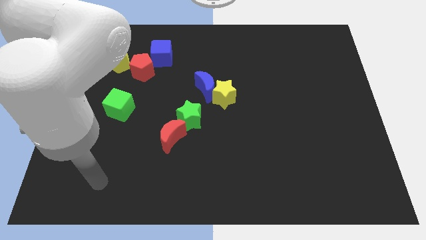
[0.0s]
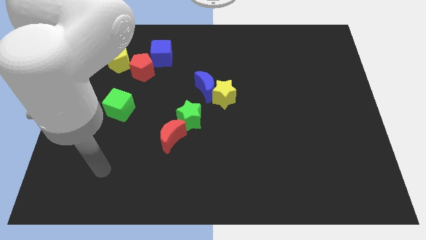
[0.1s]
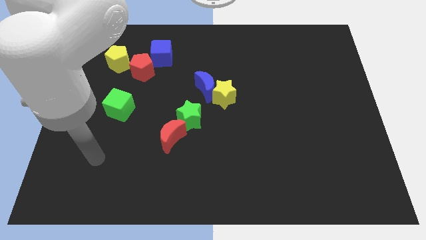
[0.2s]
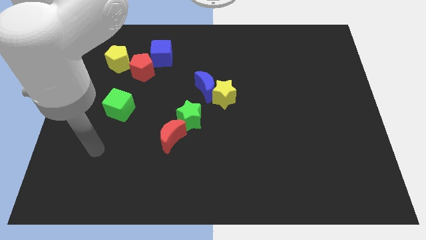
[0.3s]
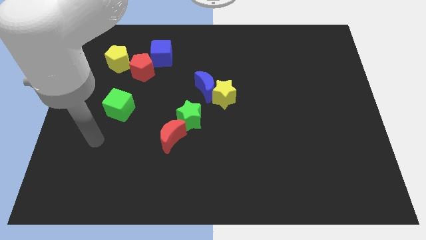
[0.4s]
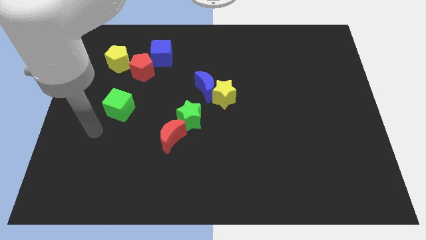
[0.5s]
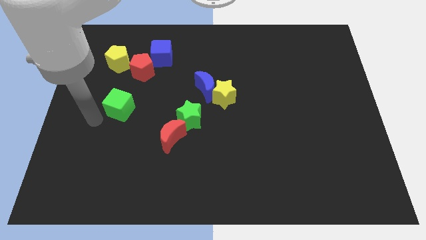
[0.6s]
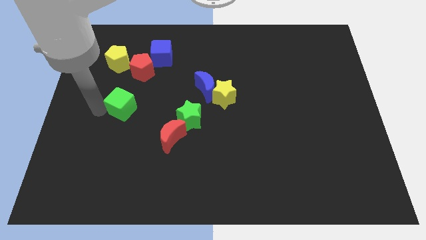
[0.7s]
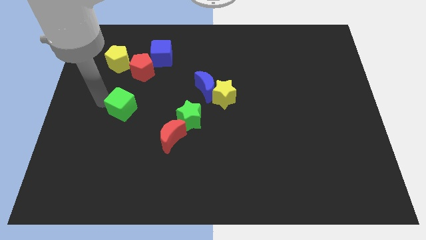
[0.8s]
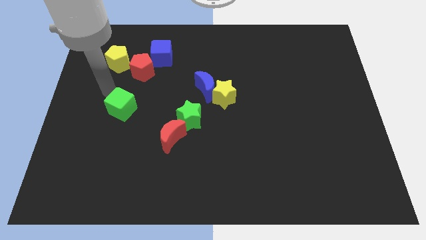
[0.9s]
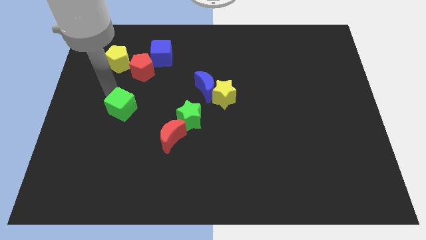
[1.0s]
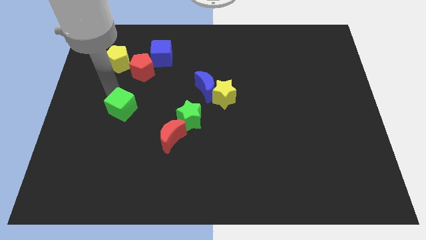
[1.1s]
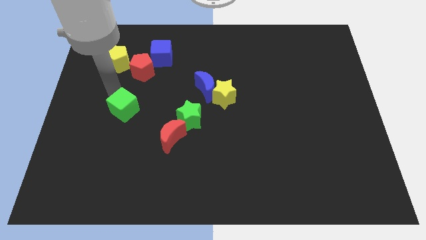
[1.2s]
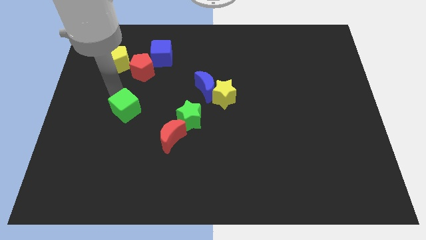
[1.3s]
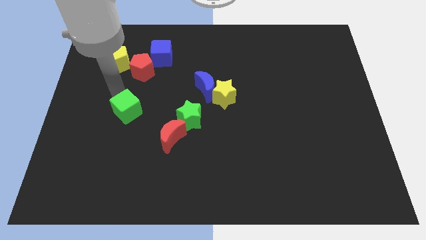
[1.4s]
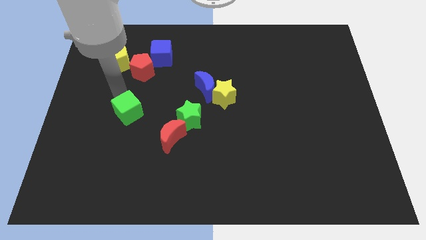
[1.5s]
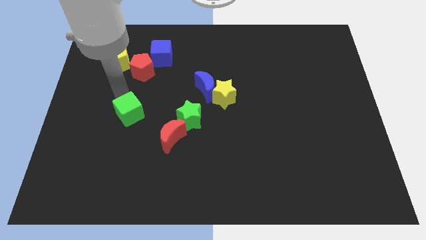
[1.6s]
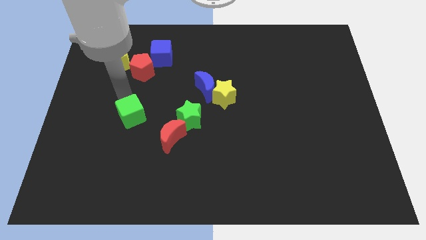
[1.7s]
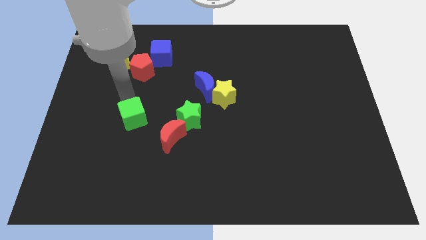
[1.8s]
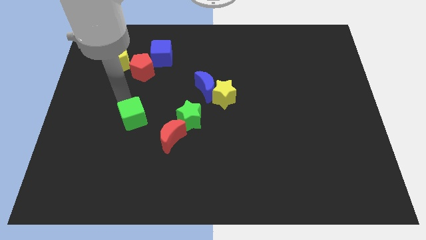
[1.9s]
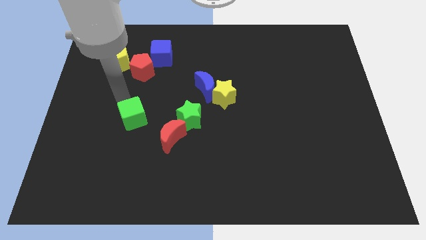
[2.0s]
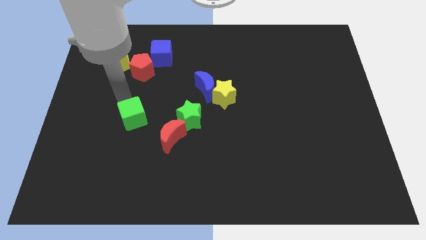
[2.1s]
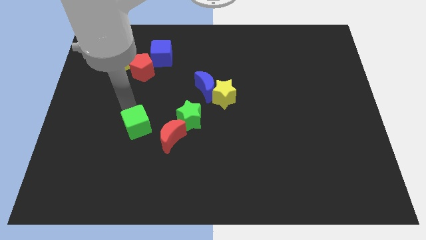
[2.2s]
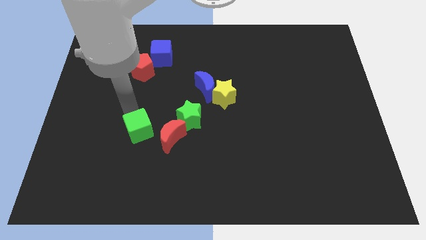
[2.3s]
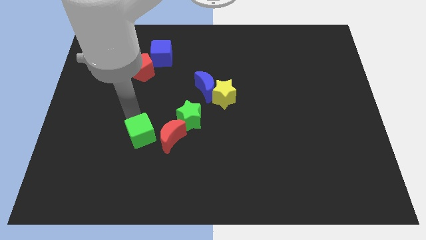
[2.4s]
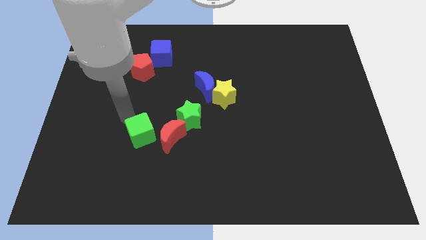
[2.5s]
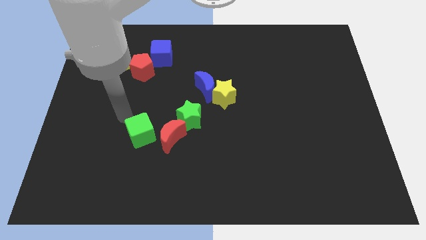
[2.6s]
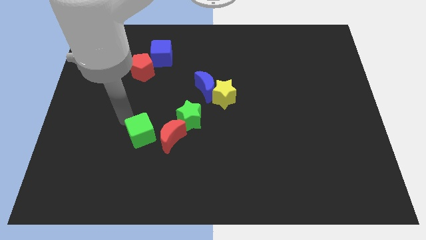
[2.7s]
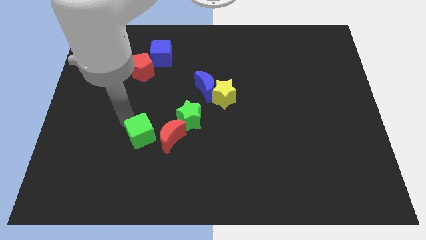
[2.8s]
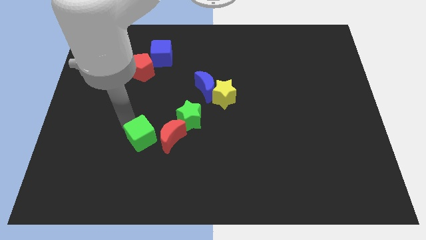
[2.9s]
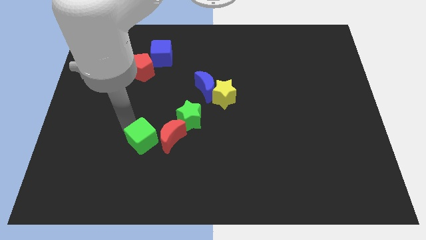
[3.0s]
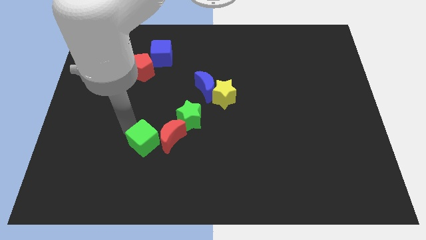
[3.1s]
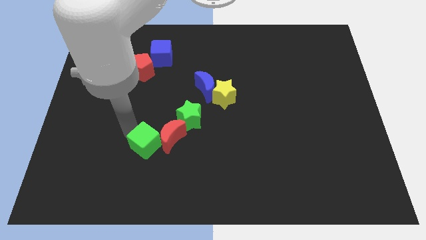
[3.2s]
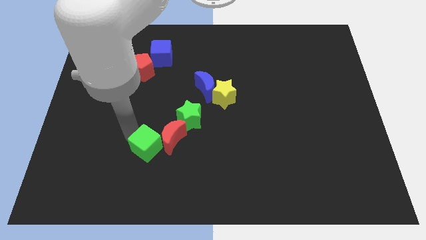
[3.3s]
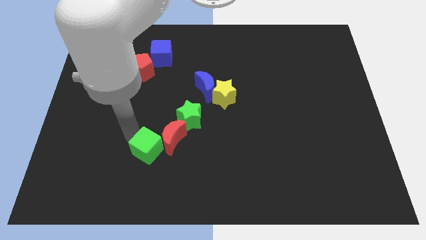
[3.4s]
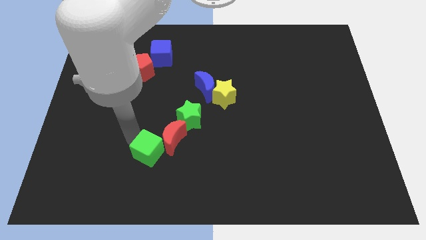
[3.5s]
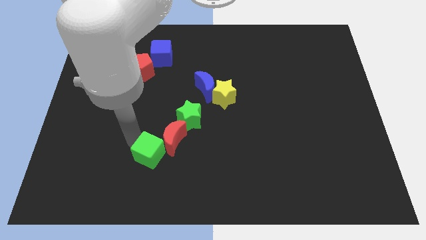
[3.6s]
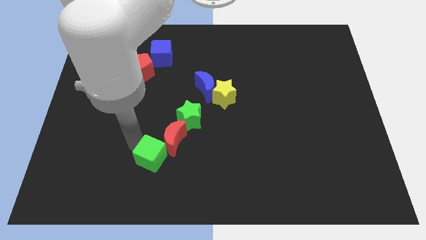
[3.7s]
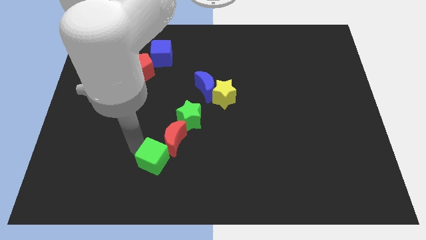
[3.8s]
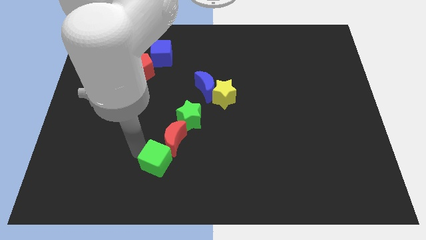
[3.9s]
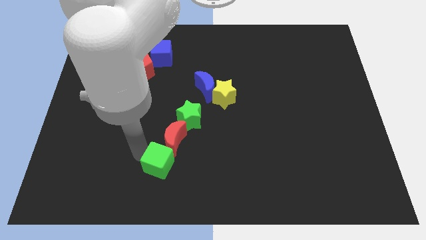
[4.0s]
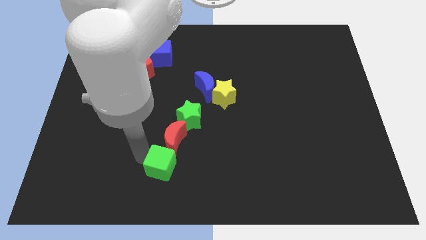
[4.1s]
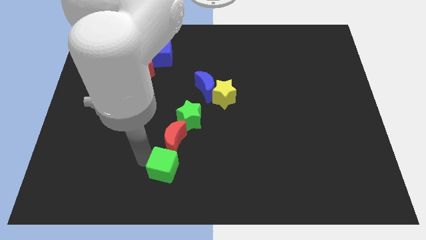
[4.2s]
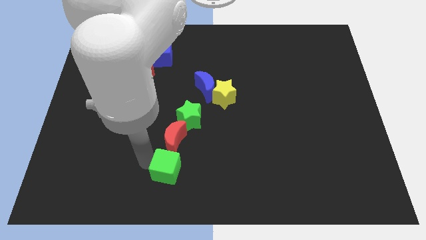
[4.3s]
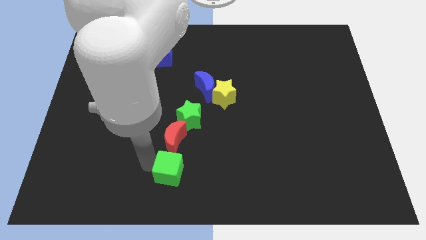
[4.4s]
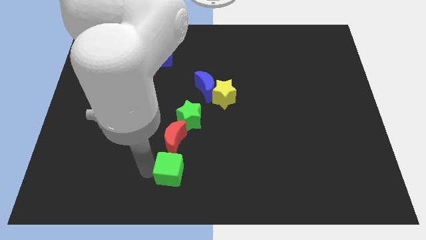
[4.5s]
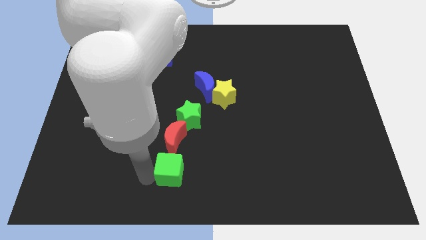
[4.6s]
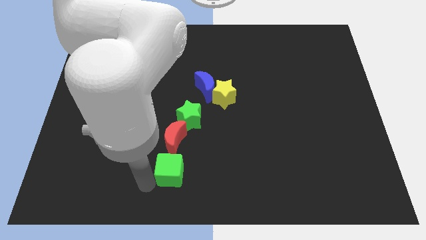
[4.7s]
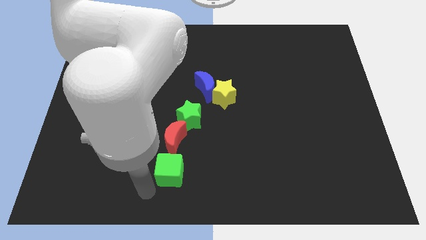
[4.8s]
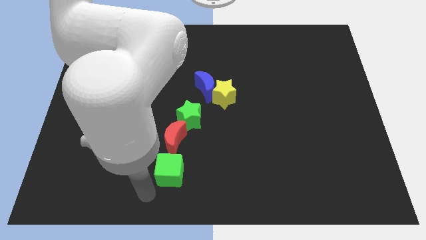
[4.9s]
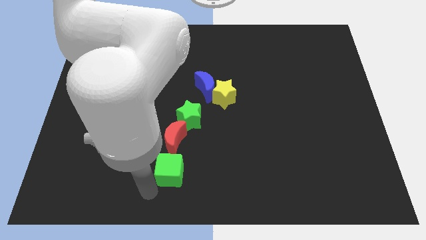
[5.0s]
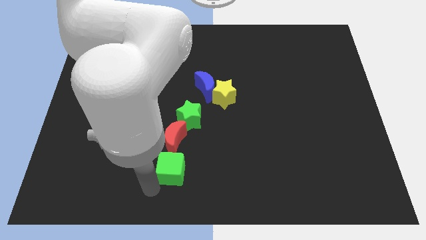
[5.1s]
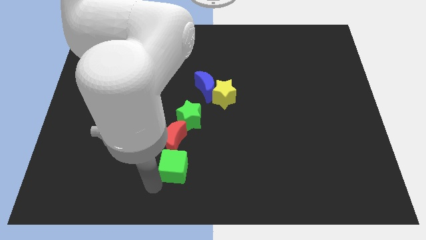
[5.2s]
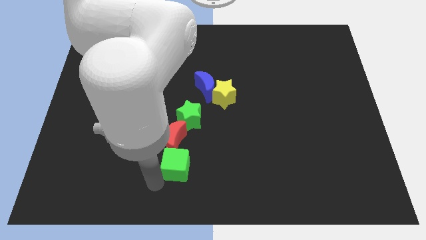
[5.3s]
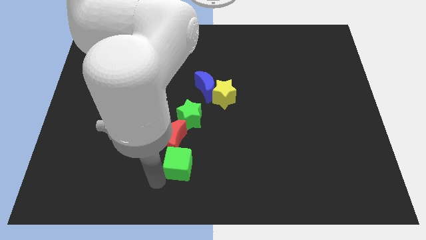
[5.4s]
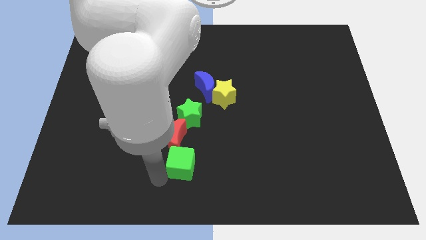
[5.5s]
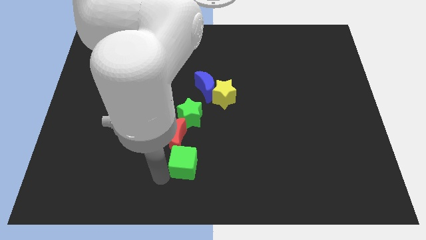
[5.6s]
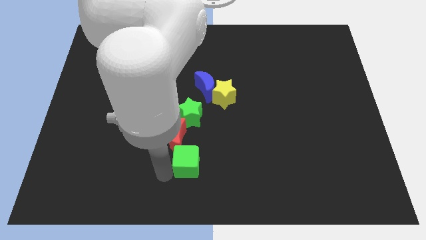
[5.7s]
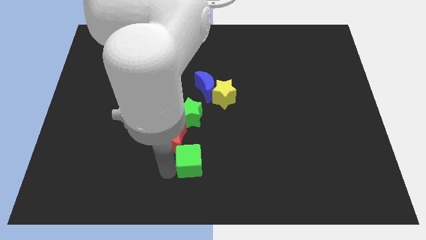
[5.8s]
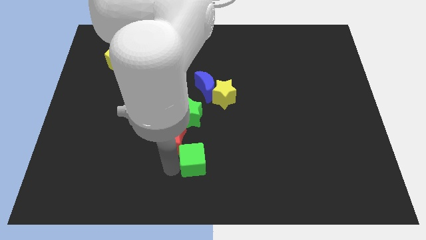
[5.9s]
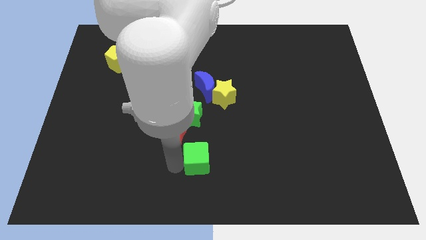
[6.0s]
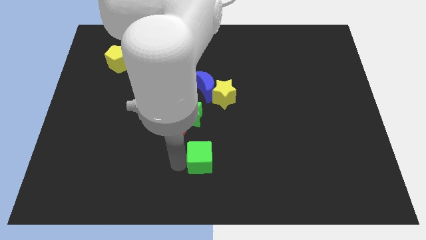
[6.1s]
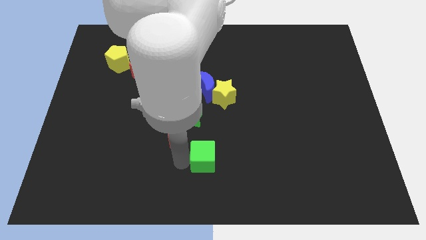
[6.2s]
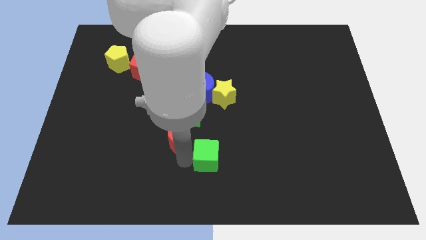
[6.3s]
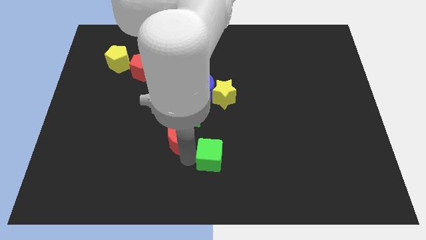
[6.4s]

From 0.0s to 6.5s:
push the green cube diagonally down and to the right of the green star

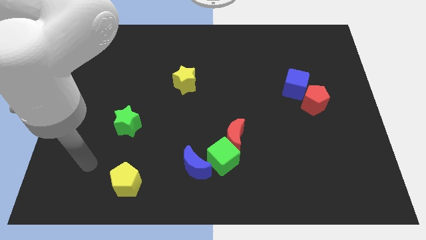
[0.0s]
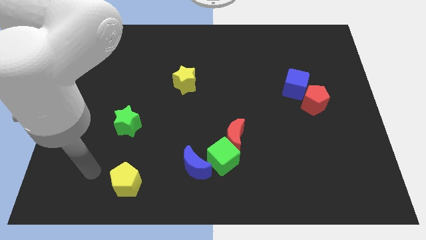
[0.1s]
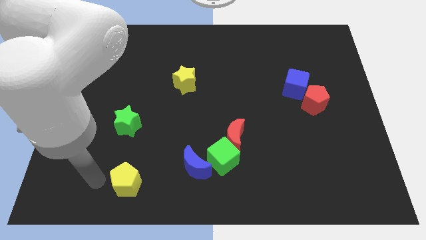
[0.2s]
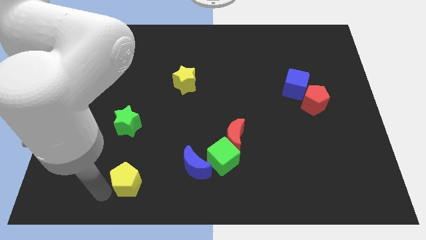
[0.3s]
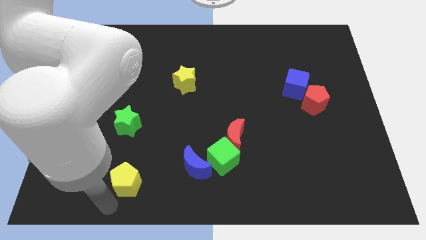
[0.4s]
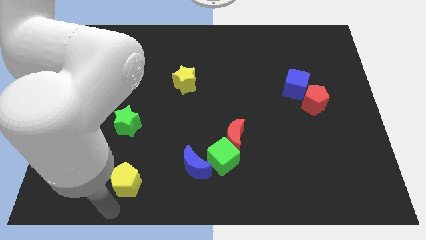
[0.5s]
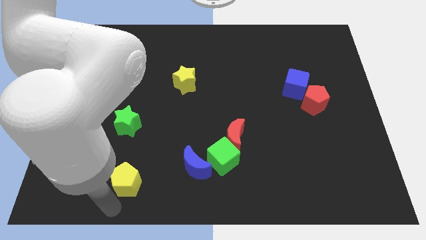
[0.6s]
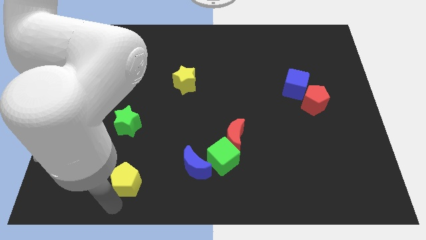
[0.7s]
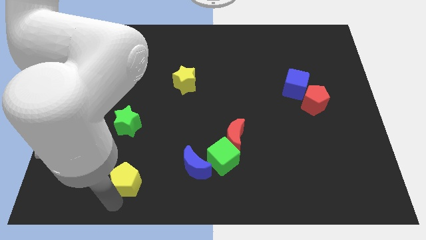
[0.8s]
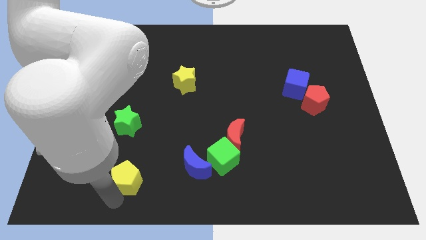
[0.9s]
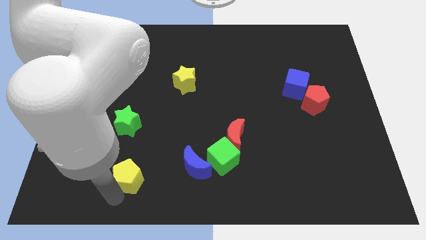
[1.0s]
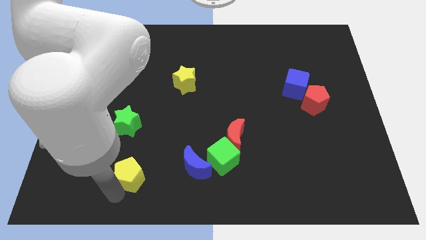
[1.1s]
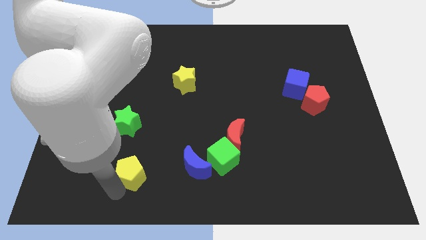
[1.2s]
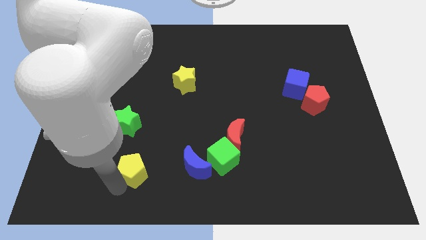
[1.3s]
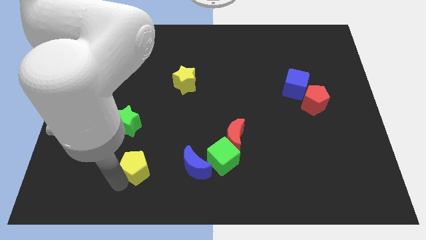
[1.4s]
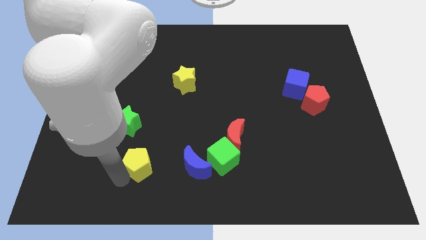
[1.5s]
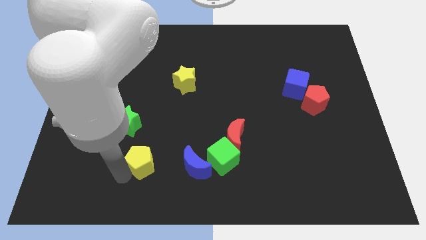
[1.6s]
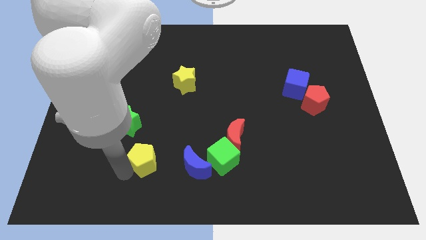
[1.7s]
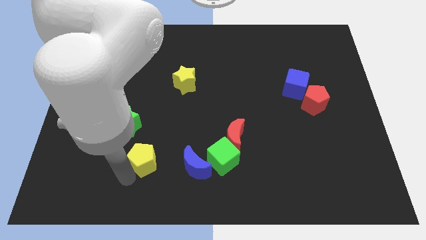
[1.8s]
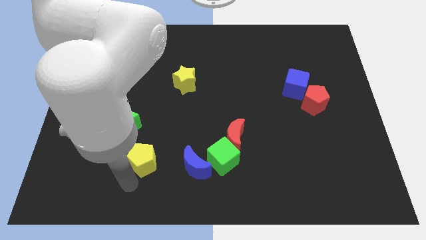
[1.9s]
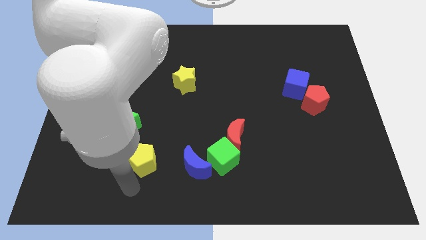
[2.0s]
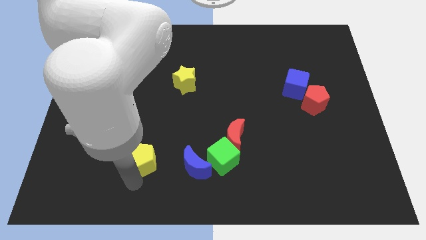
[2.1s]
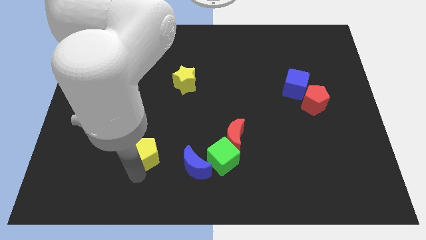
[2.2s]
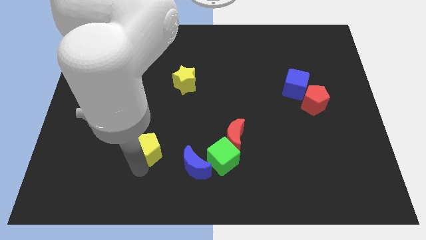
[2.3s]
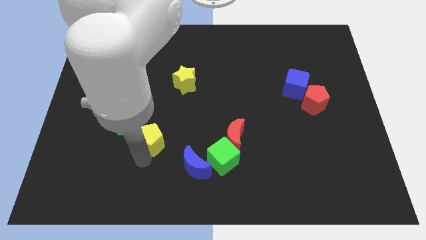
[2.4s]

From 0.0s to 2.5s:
move the yellow pentagon right of the green star
